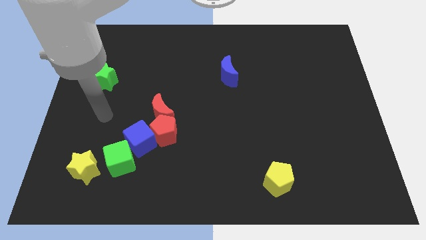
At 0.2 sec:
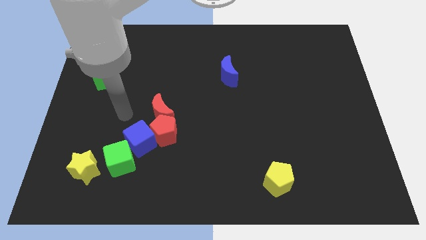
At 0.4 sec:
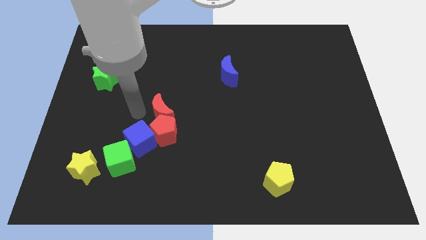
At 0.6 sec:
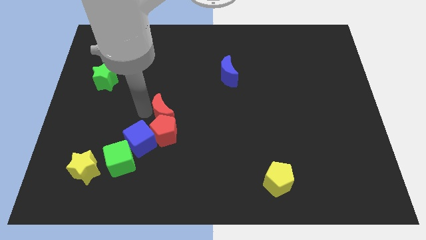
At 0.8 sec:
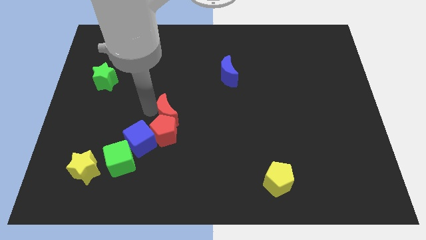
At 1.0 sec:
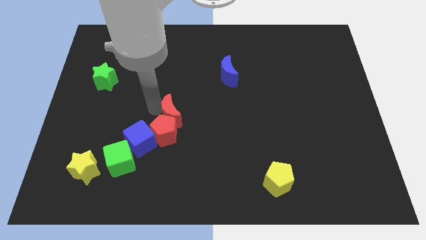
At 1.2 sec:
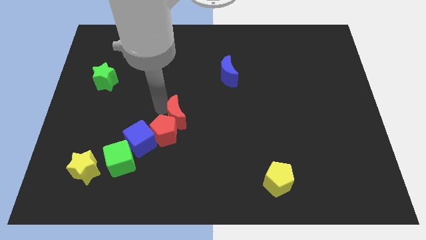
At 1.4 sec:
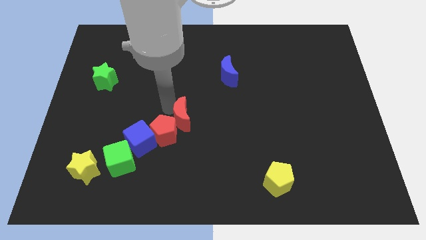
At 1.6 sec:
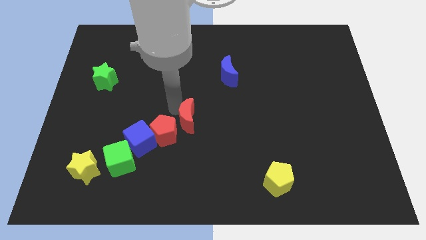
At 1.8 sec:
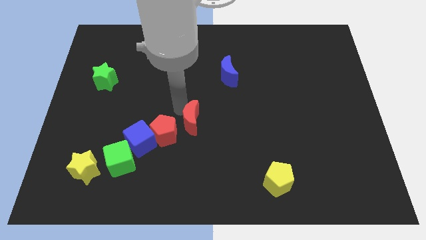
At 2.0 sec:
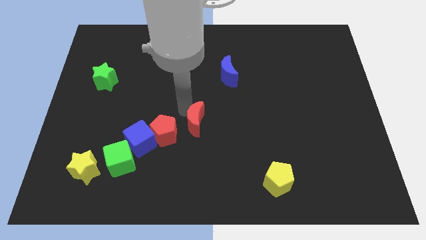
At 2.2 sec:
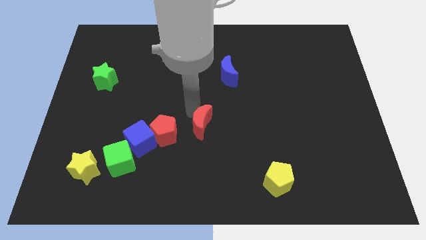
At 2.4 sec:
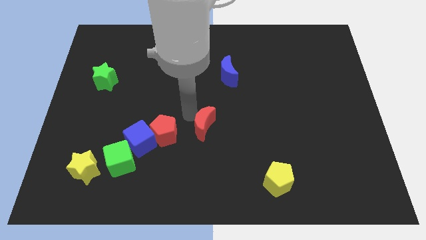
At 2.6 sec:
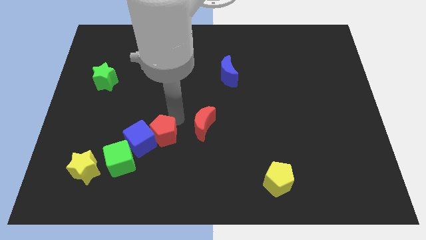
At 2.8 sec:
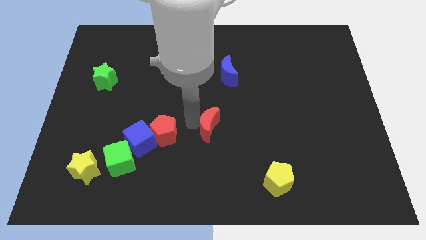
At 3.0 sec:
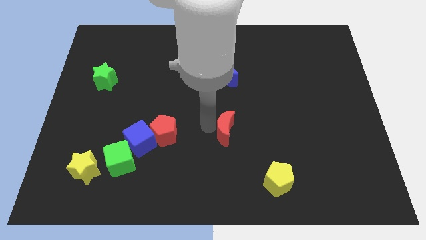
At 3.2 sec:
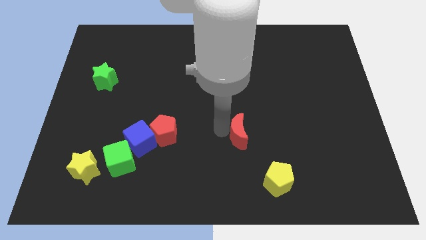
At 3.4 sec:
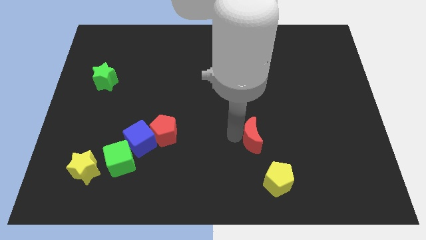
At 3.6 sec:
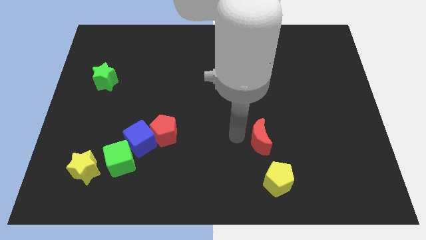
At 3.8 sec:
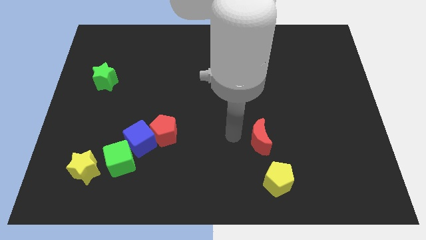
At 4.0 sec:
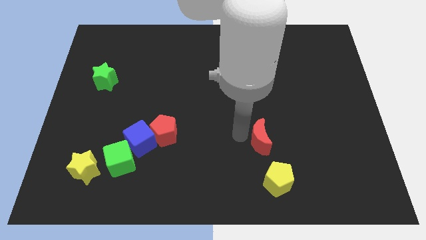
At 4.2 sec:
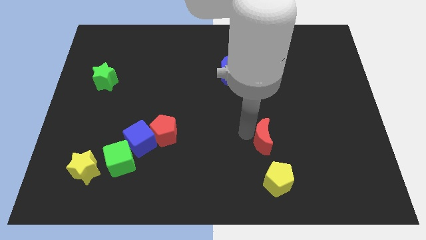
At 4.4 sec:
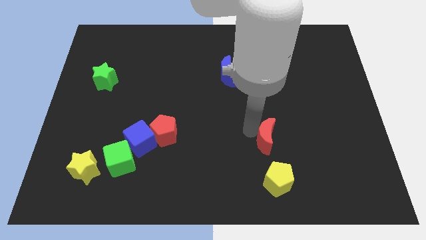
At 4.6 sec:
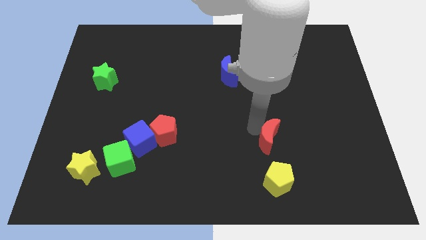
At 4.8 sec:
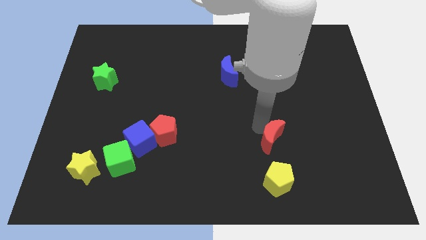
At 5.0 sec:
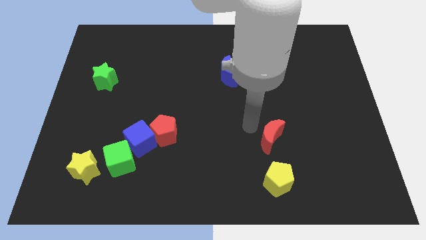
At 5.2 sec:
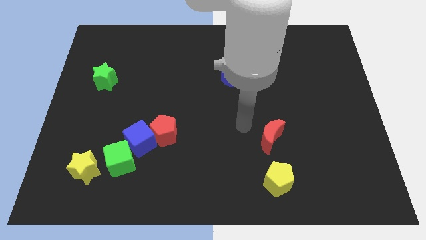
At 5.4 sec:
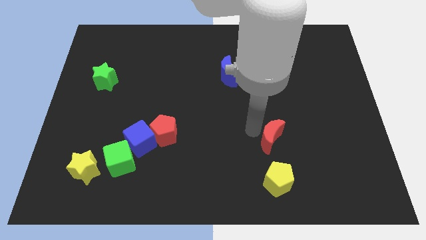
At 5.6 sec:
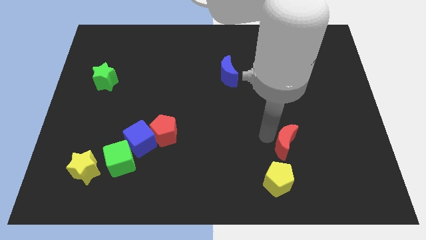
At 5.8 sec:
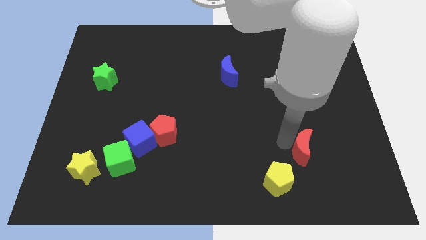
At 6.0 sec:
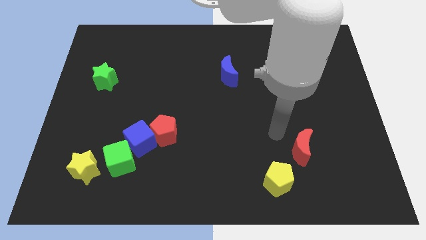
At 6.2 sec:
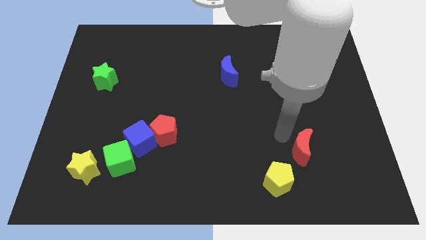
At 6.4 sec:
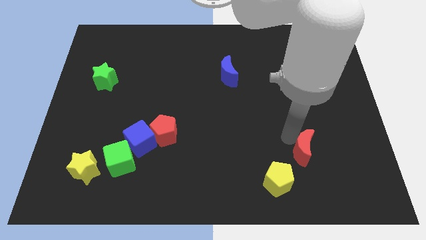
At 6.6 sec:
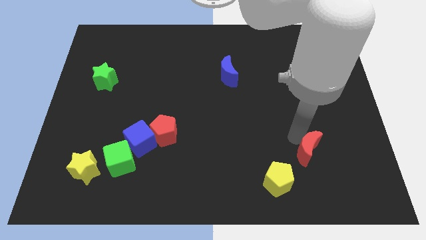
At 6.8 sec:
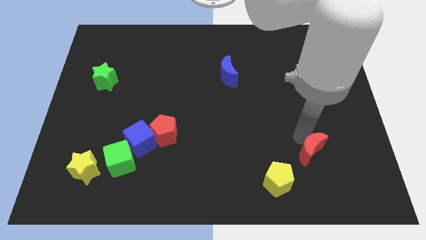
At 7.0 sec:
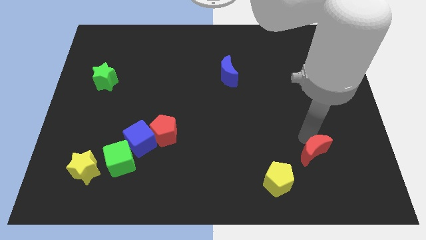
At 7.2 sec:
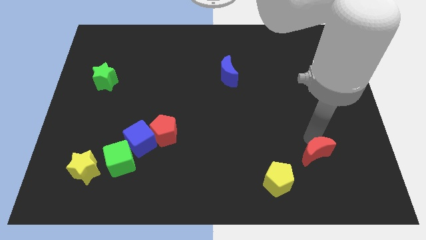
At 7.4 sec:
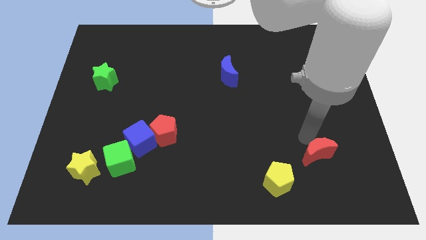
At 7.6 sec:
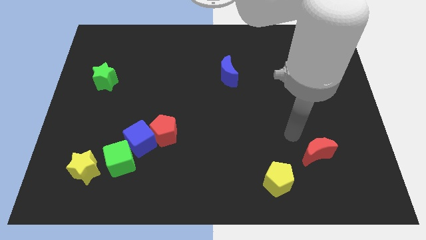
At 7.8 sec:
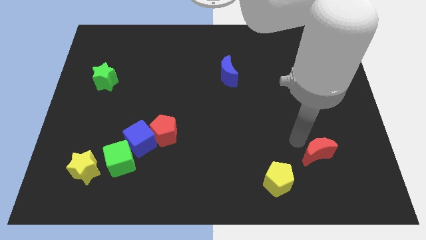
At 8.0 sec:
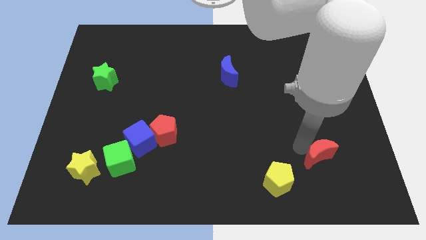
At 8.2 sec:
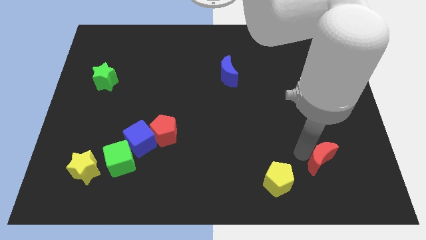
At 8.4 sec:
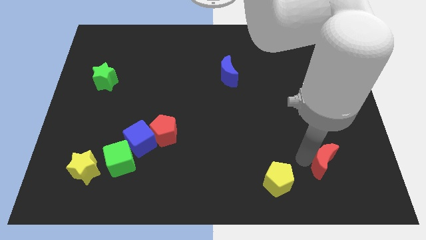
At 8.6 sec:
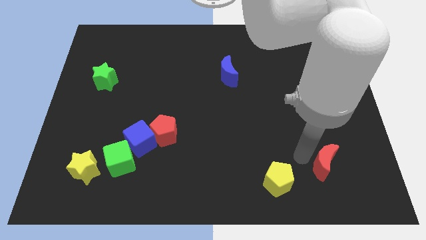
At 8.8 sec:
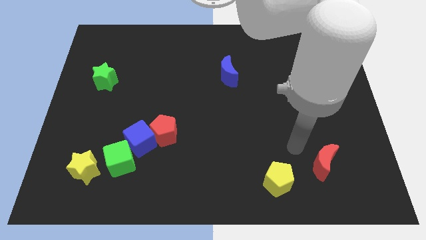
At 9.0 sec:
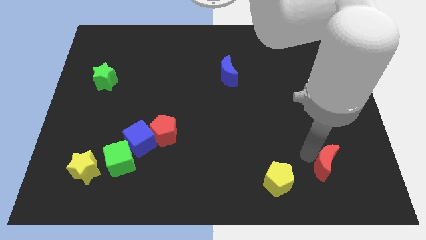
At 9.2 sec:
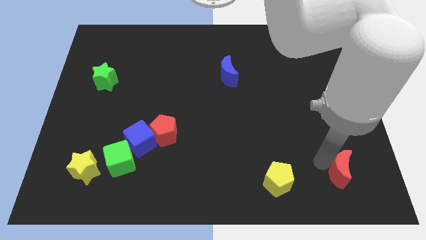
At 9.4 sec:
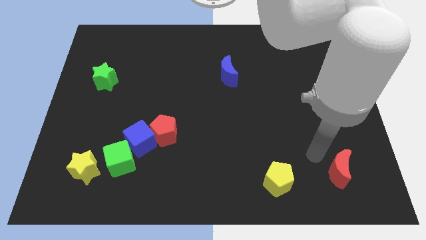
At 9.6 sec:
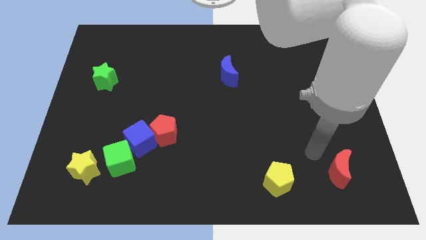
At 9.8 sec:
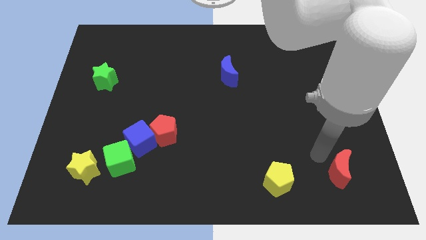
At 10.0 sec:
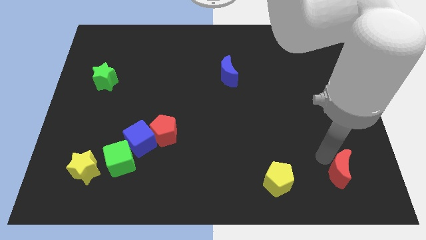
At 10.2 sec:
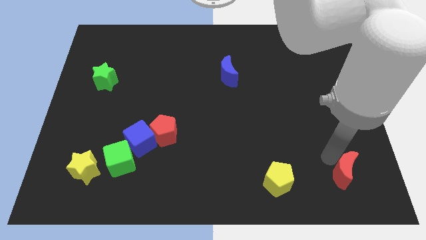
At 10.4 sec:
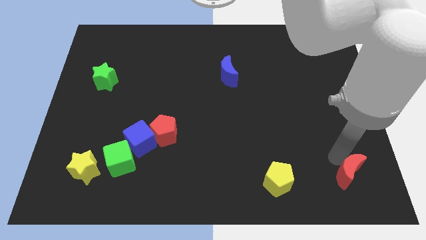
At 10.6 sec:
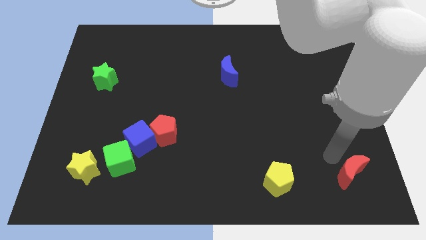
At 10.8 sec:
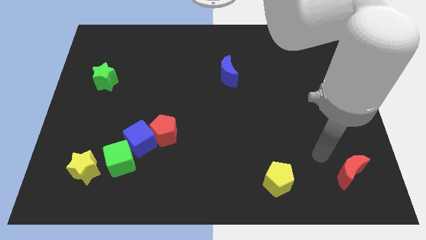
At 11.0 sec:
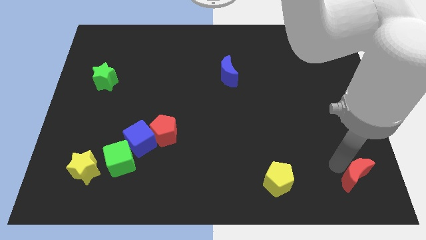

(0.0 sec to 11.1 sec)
slide the red moon to the bottom right corner

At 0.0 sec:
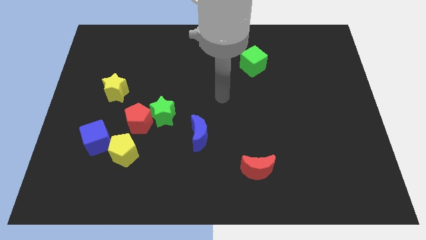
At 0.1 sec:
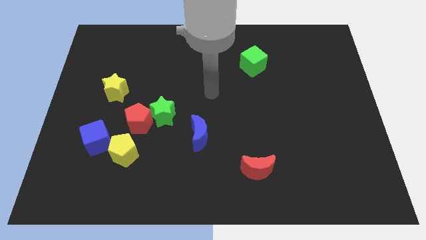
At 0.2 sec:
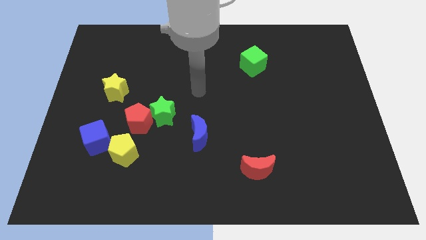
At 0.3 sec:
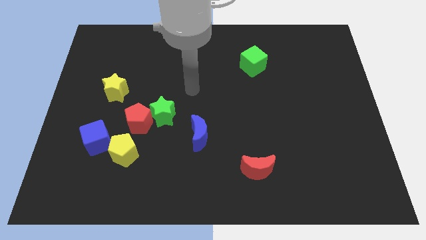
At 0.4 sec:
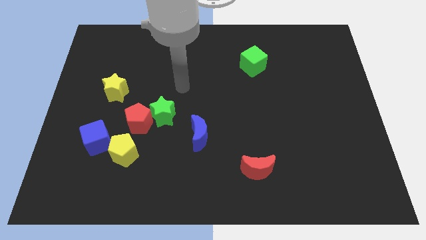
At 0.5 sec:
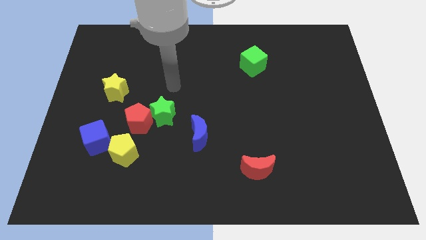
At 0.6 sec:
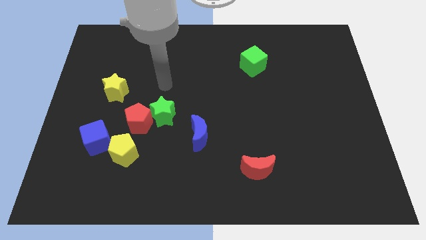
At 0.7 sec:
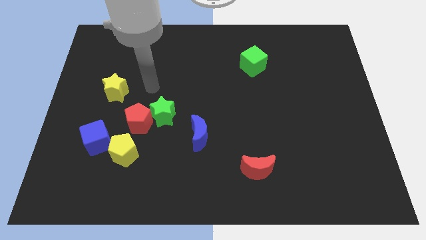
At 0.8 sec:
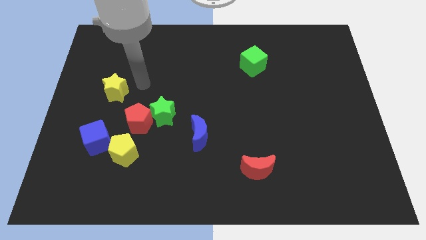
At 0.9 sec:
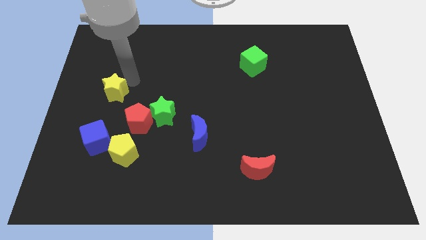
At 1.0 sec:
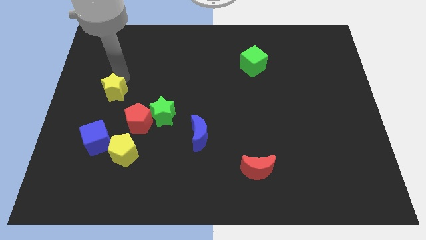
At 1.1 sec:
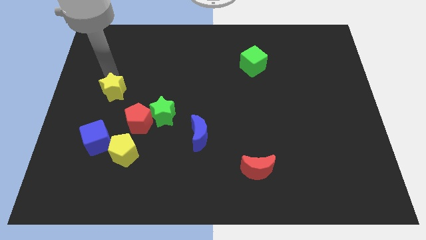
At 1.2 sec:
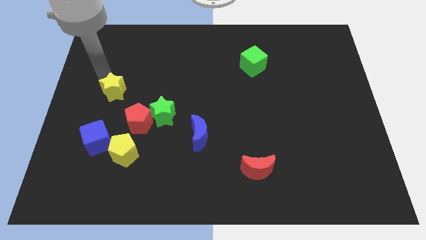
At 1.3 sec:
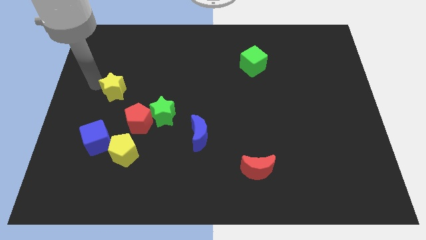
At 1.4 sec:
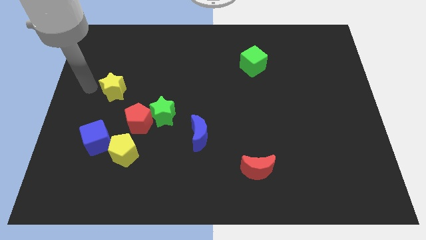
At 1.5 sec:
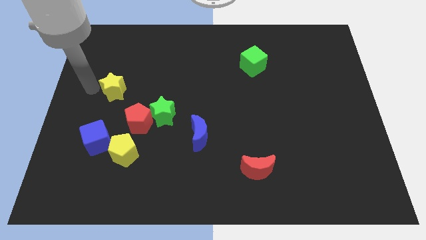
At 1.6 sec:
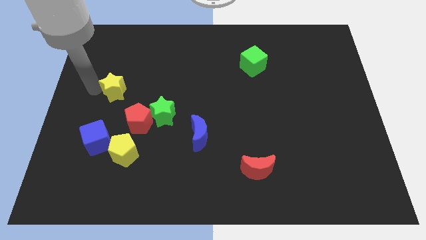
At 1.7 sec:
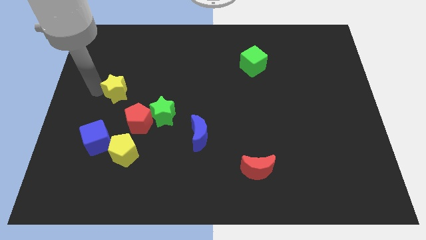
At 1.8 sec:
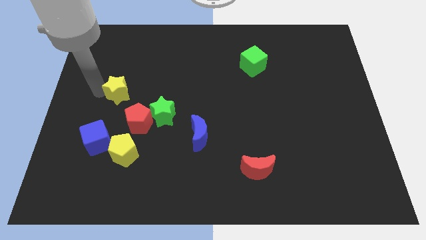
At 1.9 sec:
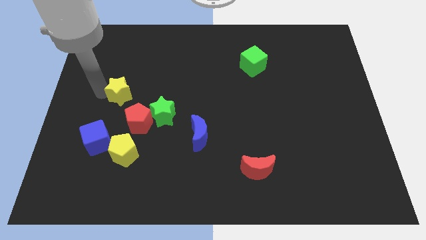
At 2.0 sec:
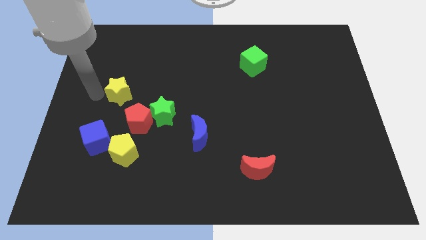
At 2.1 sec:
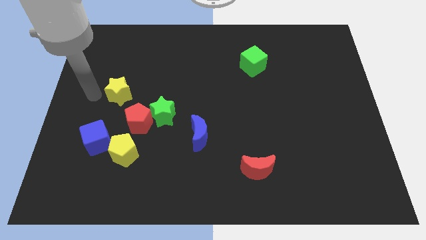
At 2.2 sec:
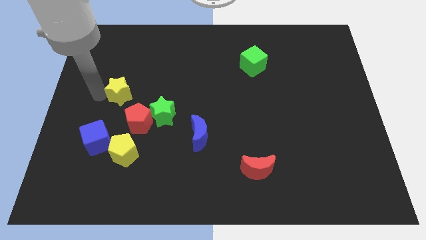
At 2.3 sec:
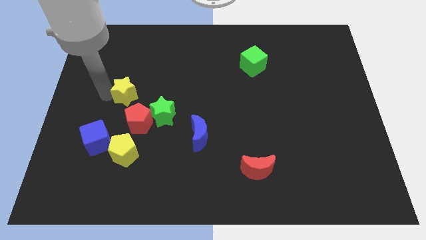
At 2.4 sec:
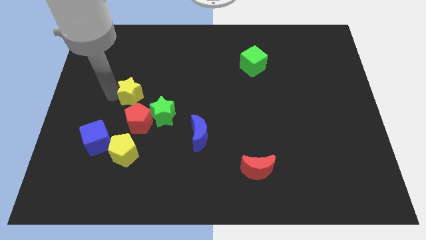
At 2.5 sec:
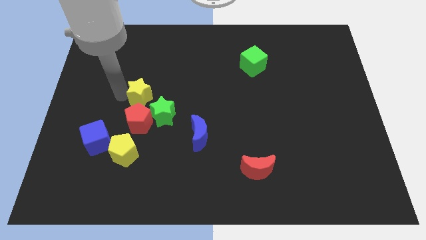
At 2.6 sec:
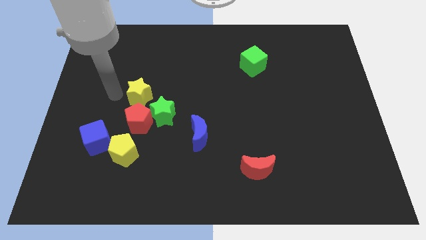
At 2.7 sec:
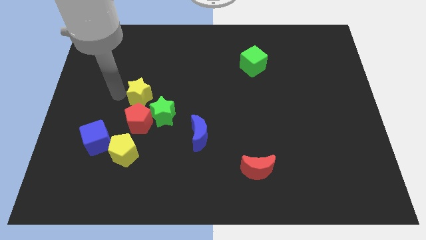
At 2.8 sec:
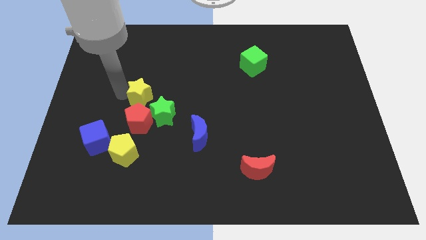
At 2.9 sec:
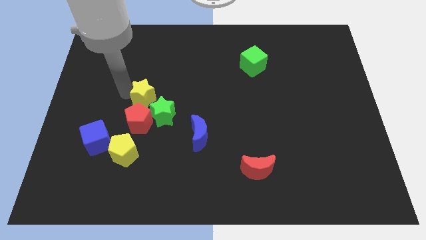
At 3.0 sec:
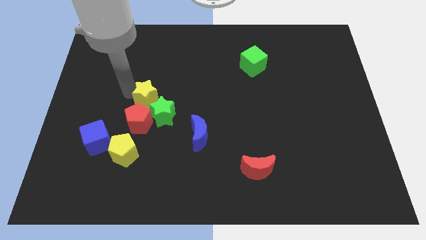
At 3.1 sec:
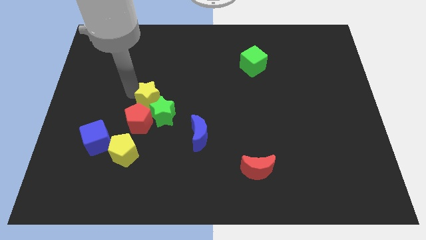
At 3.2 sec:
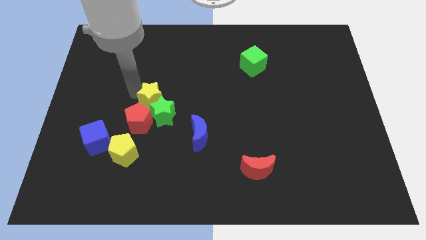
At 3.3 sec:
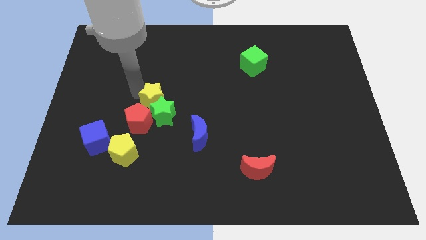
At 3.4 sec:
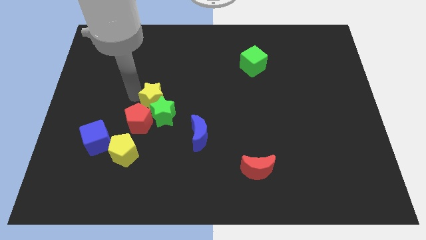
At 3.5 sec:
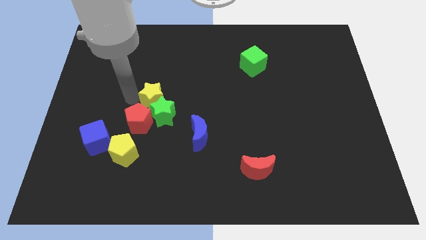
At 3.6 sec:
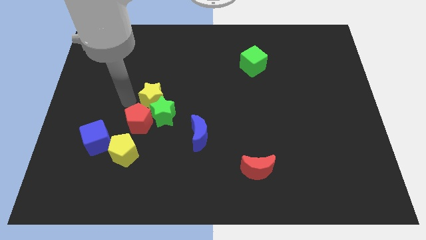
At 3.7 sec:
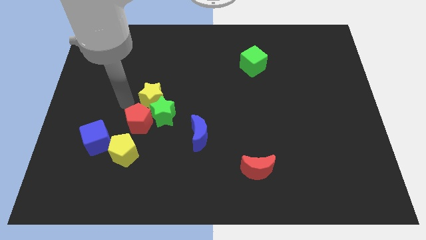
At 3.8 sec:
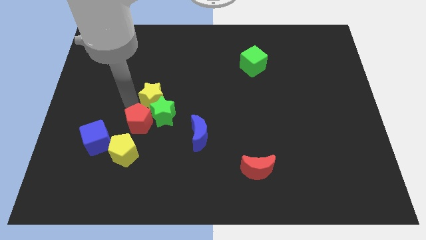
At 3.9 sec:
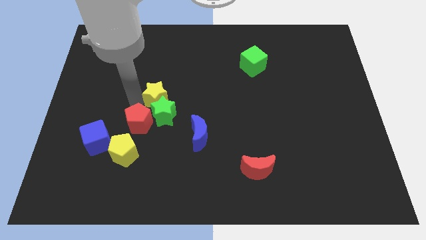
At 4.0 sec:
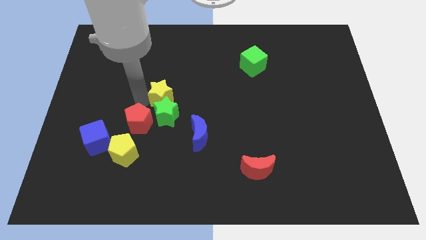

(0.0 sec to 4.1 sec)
slide the yellow star to the center
